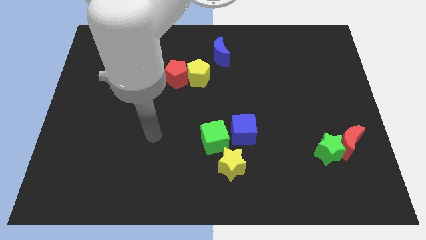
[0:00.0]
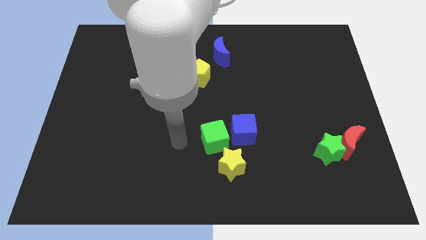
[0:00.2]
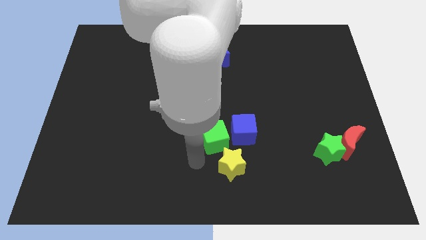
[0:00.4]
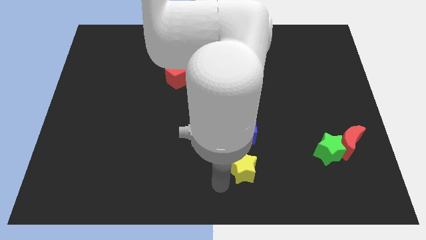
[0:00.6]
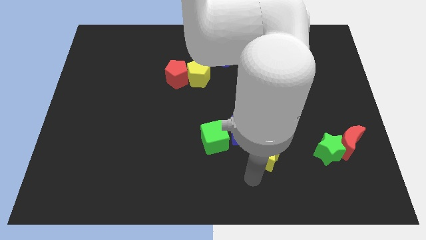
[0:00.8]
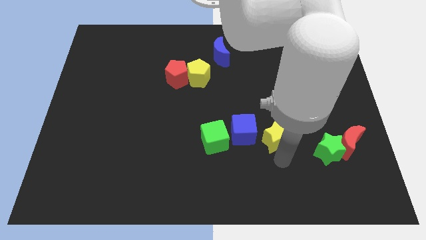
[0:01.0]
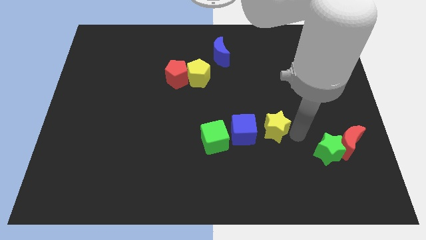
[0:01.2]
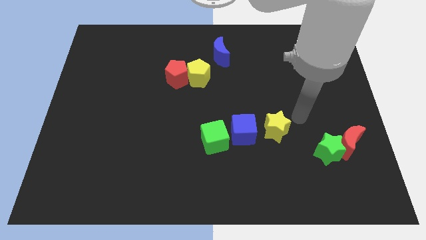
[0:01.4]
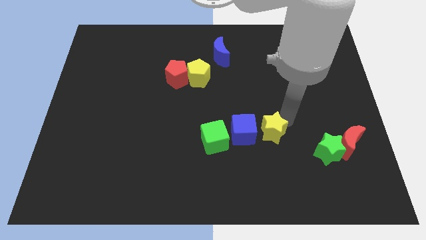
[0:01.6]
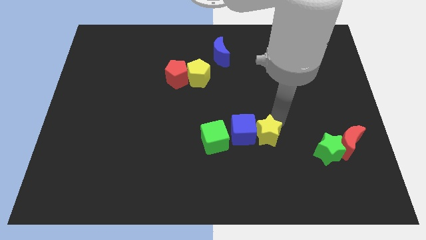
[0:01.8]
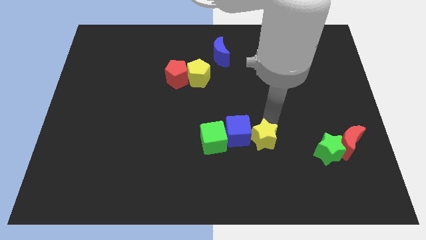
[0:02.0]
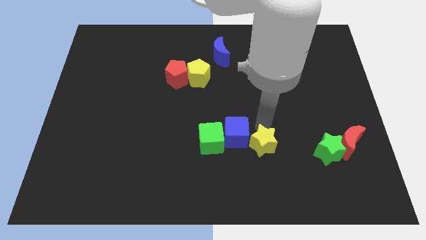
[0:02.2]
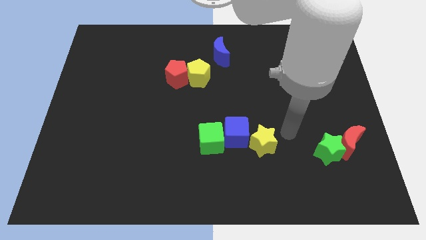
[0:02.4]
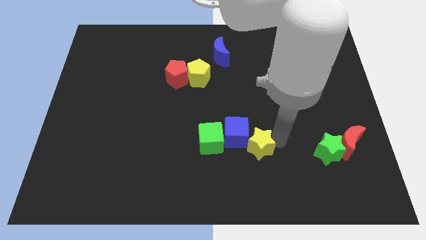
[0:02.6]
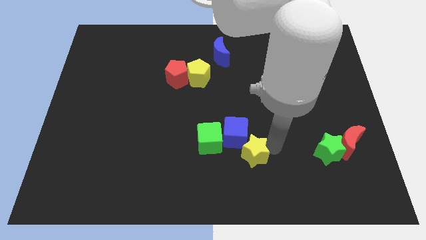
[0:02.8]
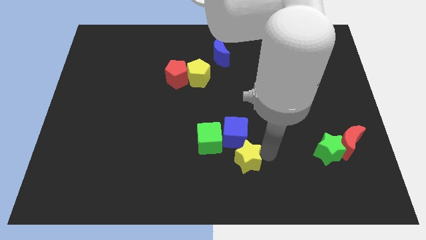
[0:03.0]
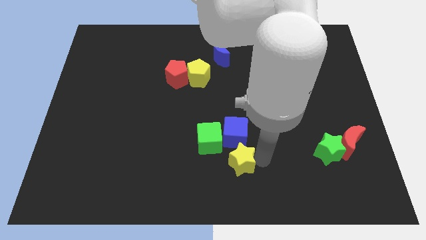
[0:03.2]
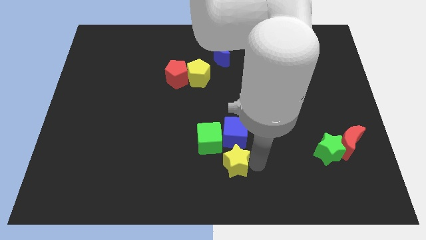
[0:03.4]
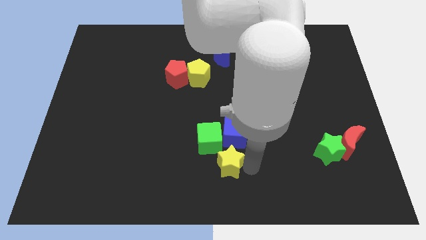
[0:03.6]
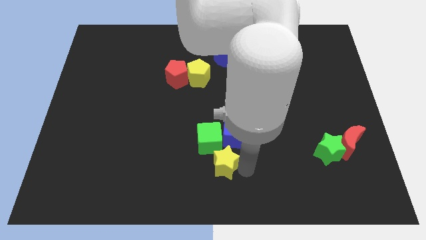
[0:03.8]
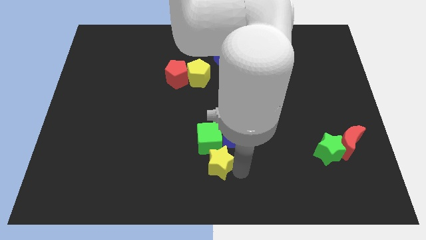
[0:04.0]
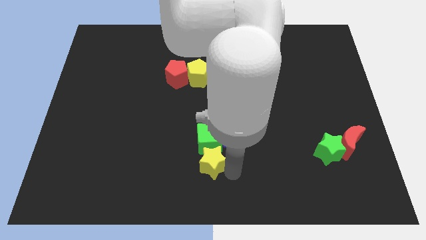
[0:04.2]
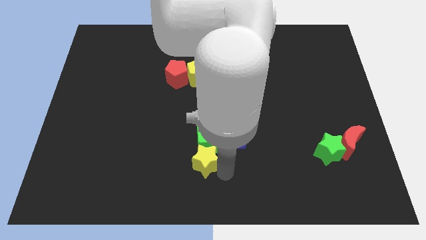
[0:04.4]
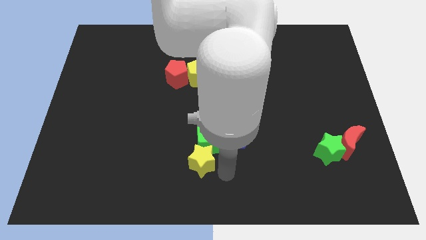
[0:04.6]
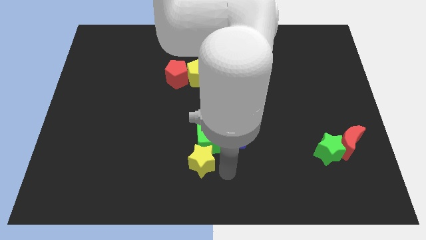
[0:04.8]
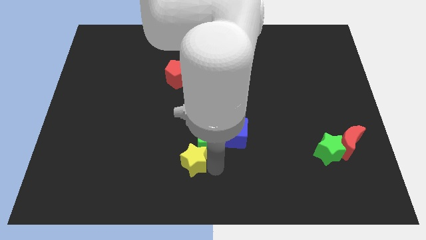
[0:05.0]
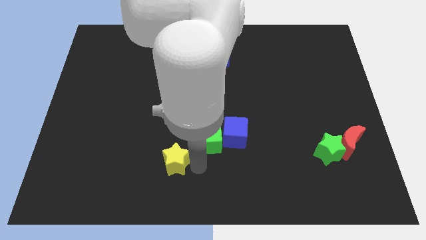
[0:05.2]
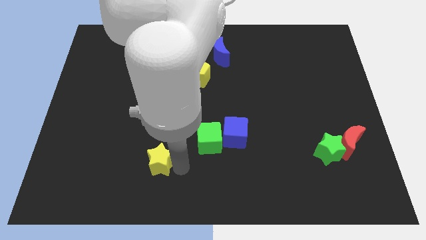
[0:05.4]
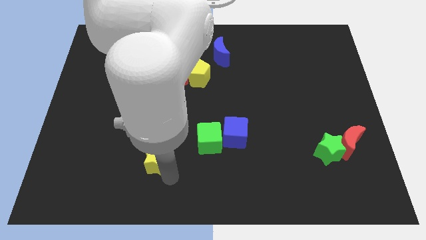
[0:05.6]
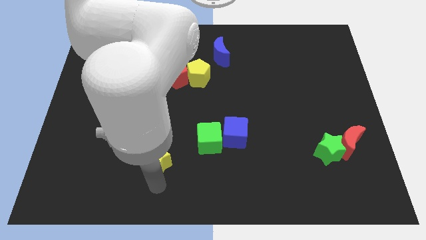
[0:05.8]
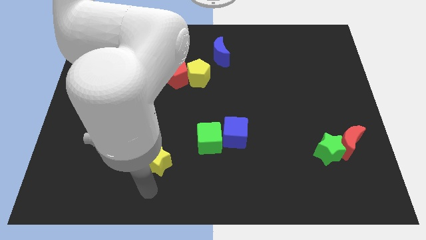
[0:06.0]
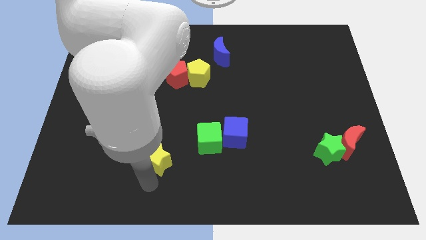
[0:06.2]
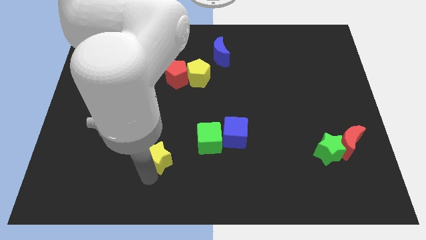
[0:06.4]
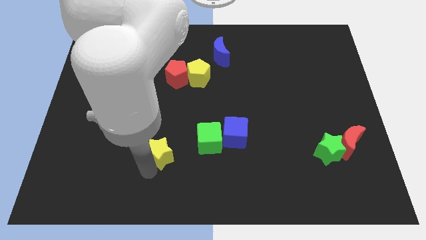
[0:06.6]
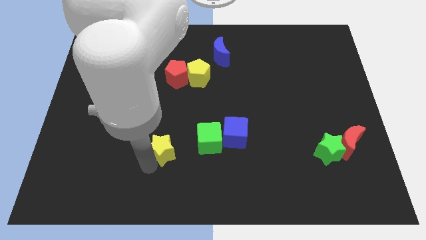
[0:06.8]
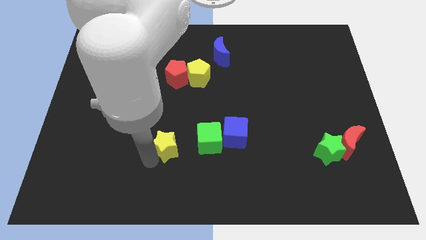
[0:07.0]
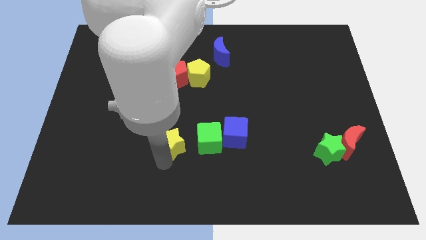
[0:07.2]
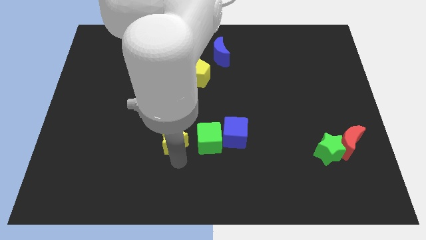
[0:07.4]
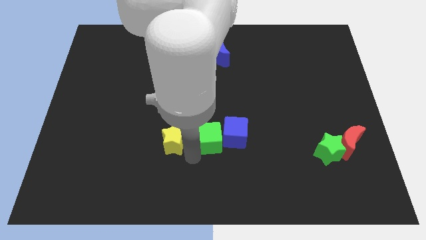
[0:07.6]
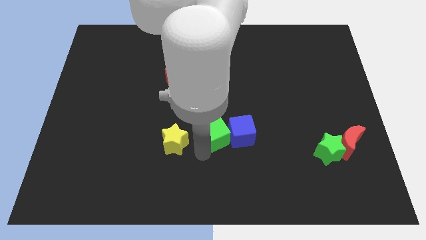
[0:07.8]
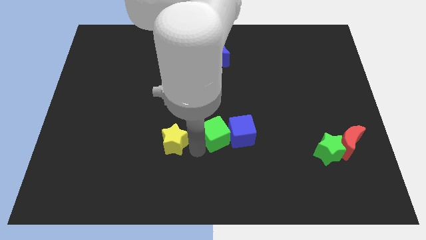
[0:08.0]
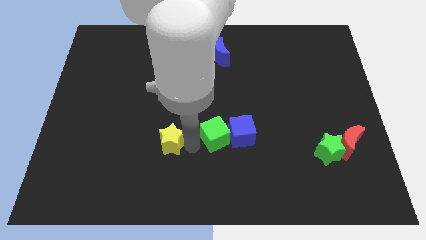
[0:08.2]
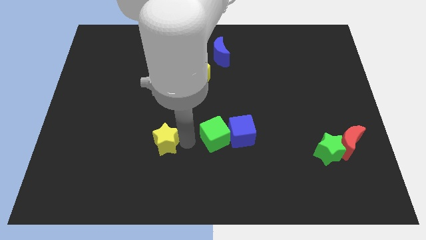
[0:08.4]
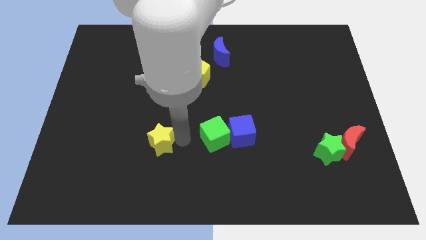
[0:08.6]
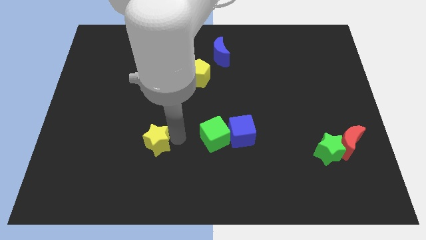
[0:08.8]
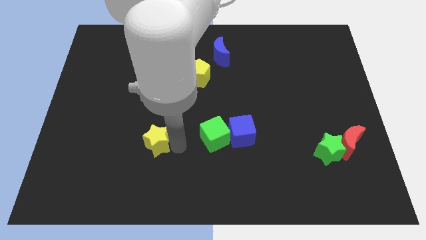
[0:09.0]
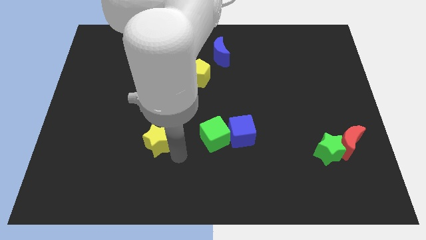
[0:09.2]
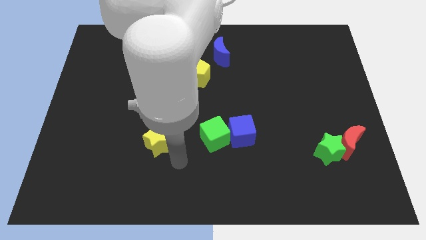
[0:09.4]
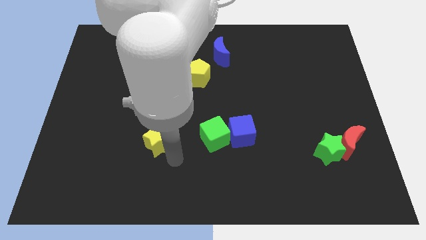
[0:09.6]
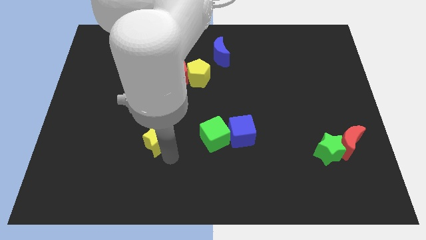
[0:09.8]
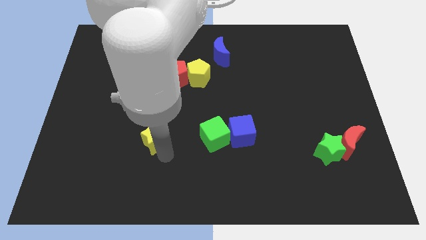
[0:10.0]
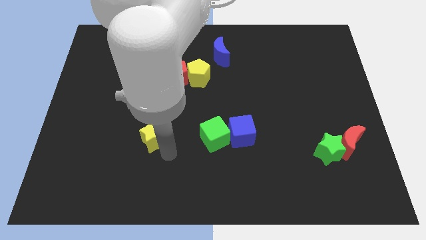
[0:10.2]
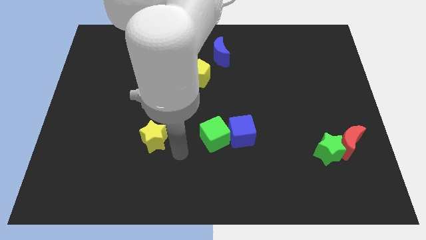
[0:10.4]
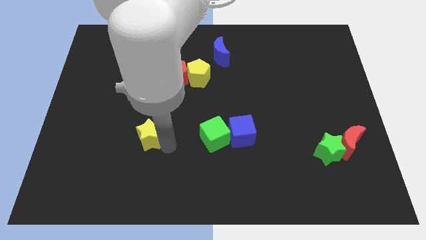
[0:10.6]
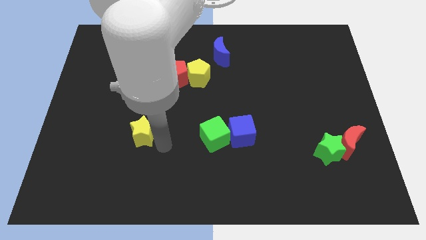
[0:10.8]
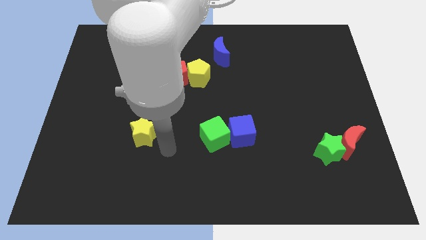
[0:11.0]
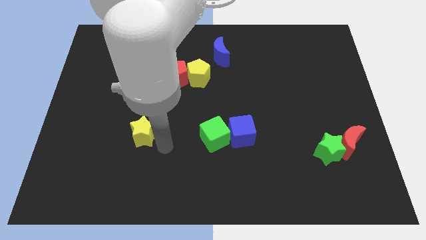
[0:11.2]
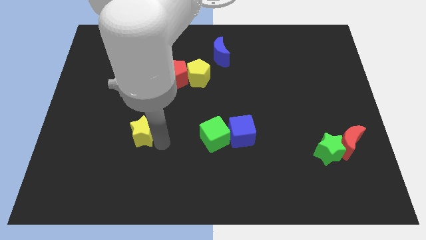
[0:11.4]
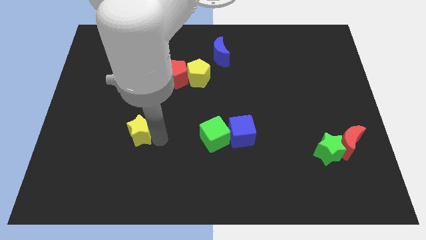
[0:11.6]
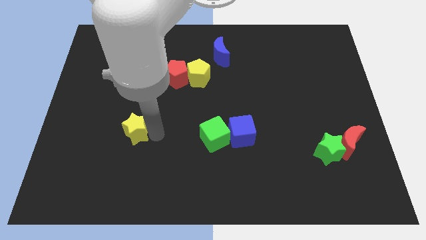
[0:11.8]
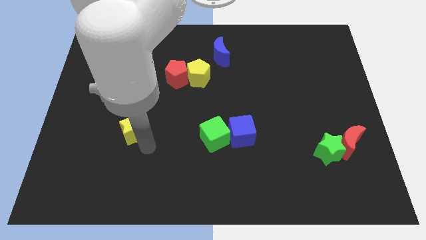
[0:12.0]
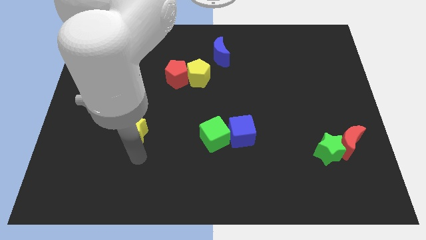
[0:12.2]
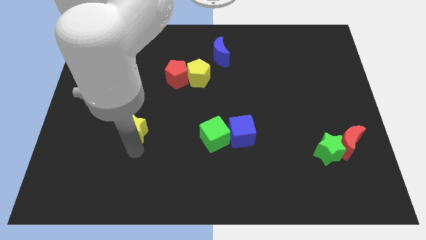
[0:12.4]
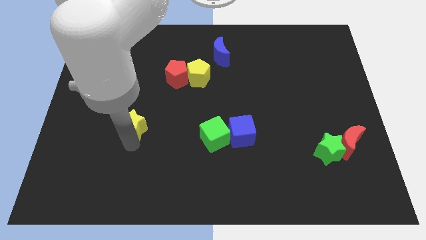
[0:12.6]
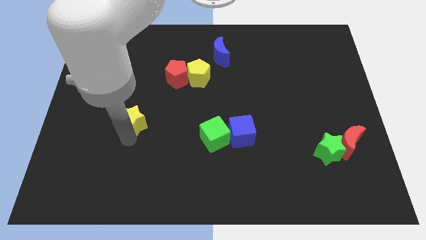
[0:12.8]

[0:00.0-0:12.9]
move the yellow star diagonally up and left

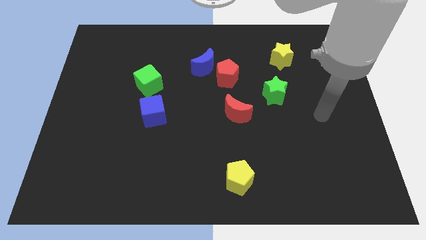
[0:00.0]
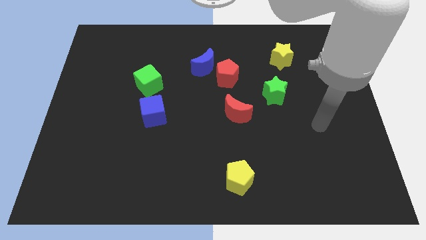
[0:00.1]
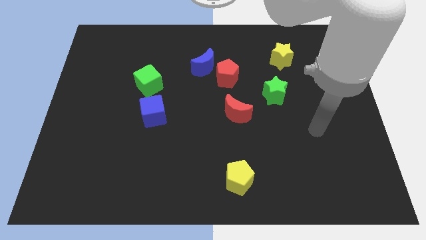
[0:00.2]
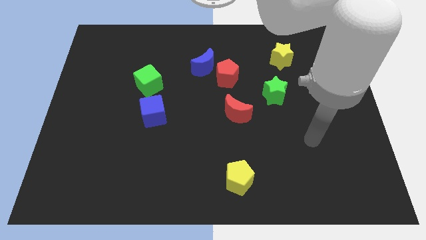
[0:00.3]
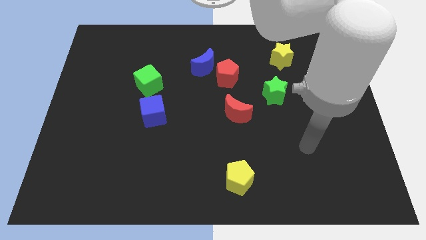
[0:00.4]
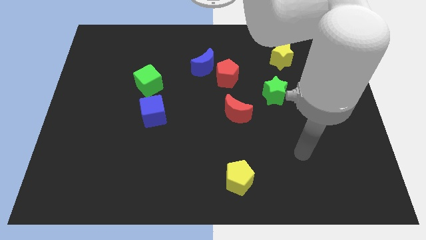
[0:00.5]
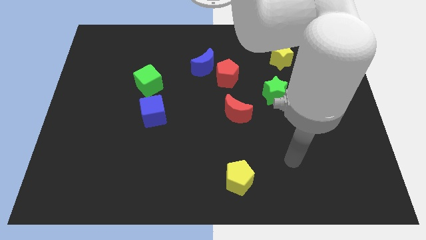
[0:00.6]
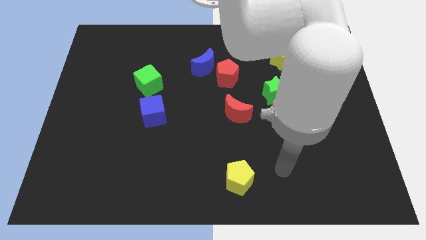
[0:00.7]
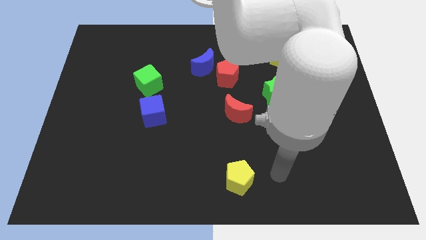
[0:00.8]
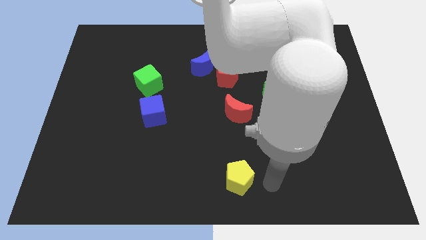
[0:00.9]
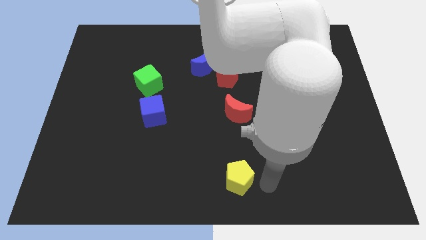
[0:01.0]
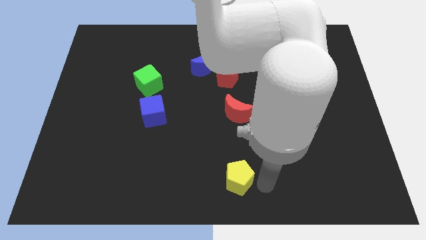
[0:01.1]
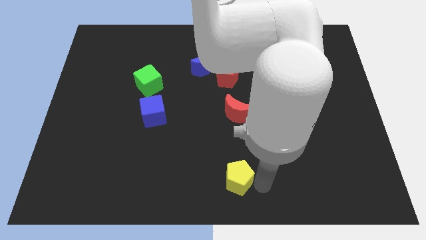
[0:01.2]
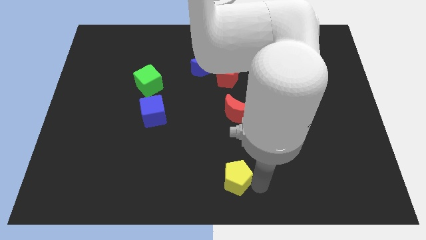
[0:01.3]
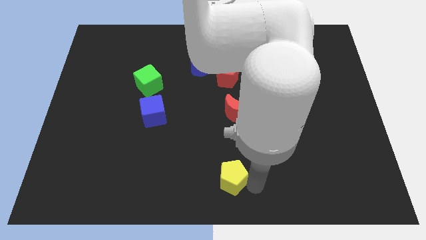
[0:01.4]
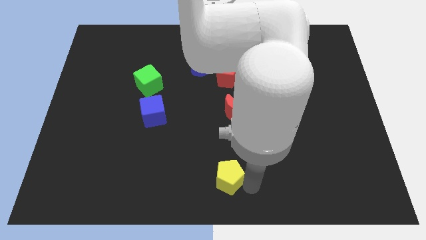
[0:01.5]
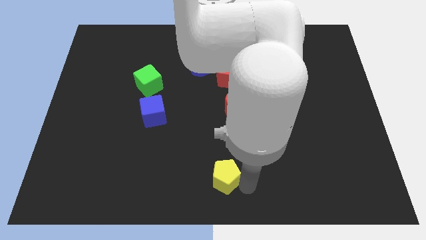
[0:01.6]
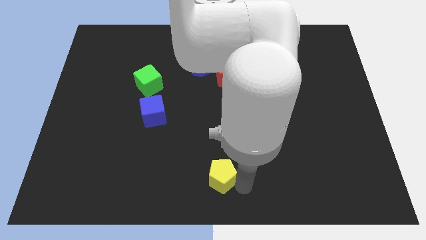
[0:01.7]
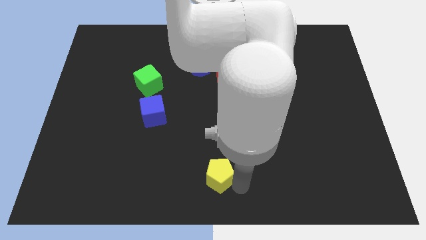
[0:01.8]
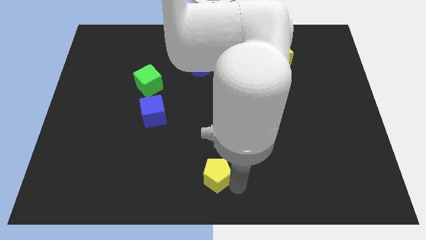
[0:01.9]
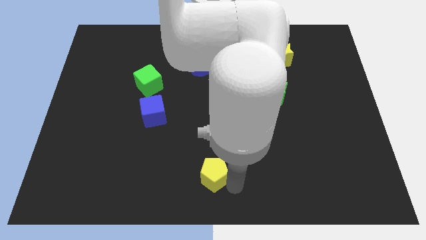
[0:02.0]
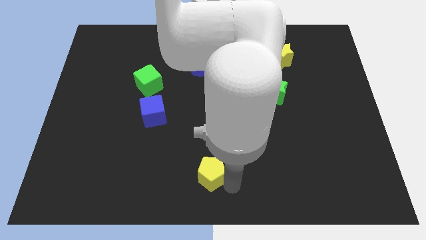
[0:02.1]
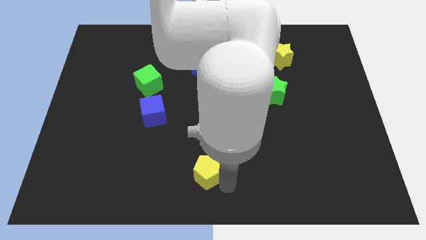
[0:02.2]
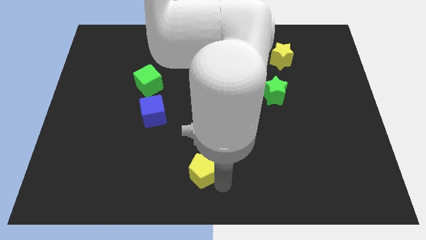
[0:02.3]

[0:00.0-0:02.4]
push the yellow pentagon to the left a bit
